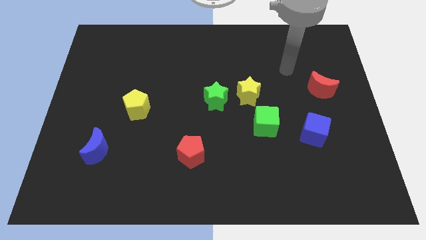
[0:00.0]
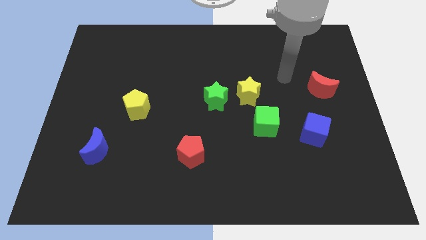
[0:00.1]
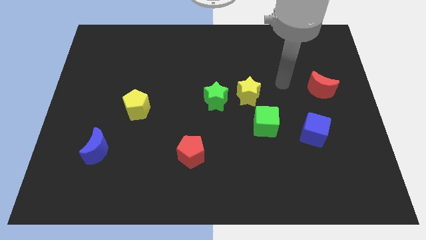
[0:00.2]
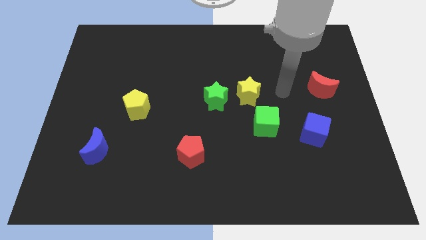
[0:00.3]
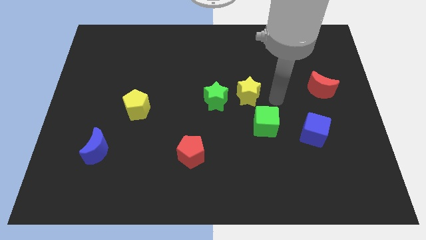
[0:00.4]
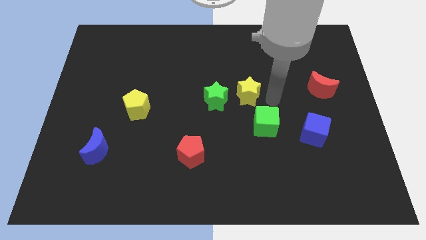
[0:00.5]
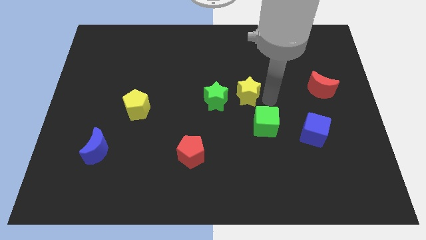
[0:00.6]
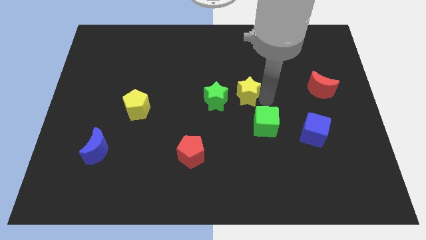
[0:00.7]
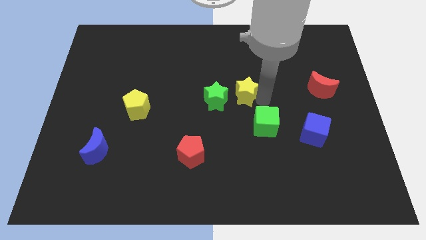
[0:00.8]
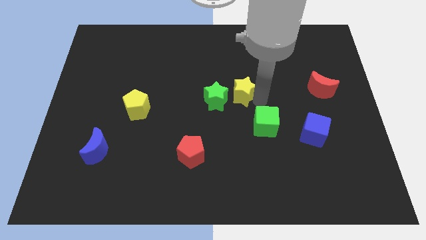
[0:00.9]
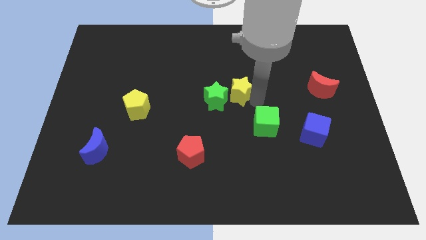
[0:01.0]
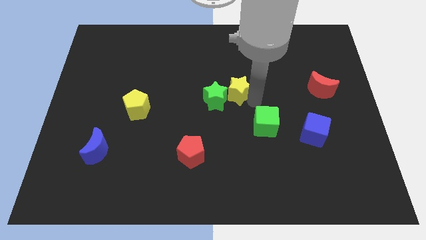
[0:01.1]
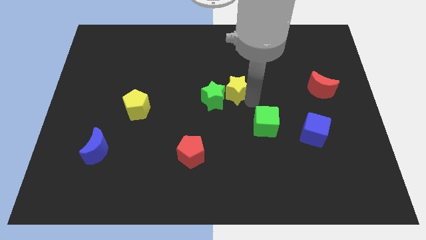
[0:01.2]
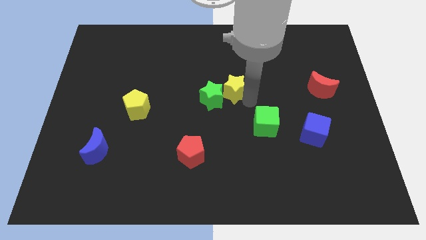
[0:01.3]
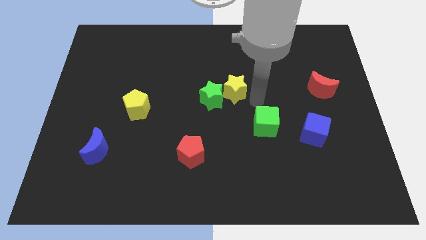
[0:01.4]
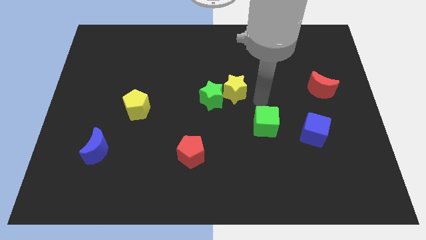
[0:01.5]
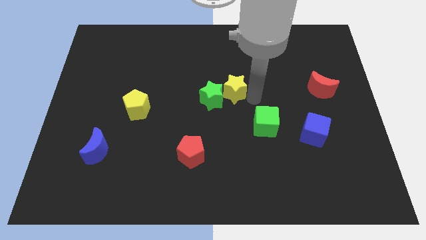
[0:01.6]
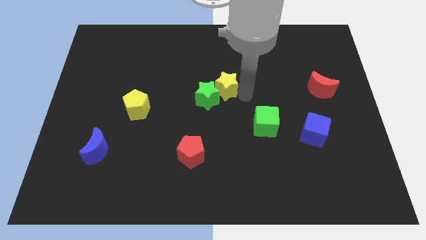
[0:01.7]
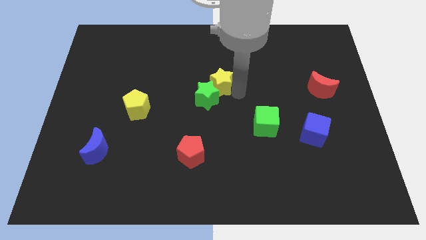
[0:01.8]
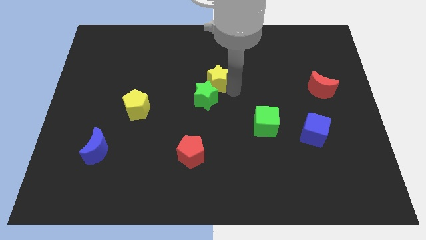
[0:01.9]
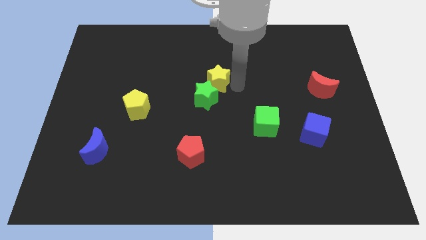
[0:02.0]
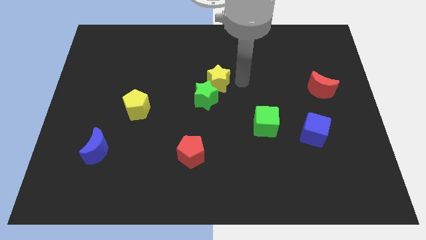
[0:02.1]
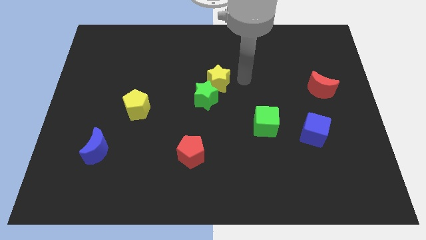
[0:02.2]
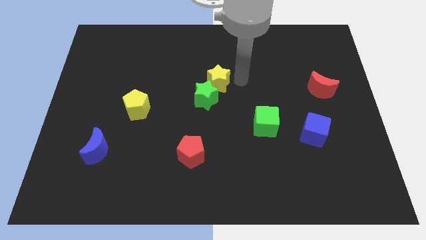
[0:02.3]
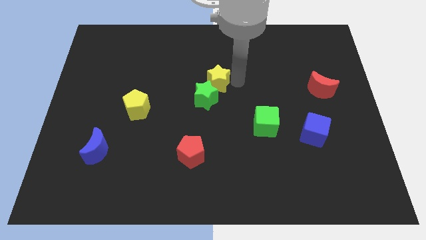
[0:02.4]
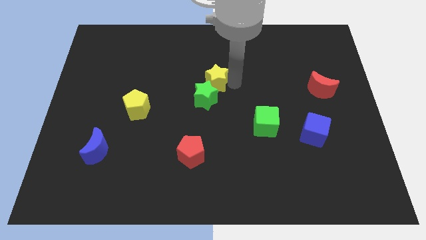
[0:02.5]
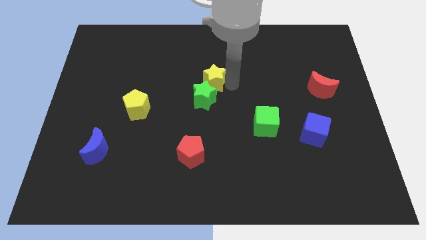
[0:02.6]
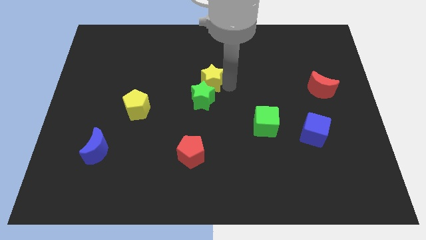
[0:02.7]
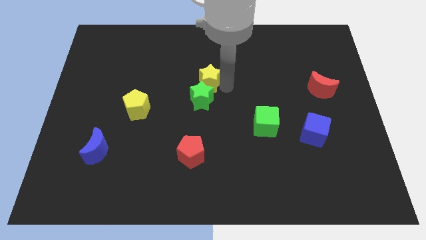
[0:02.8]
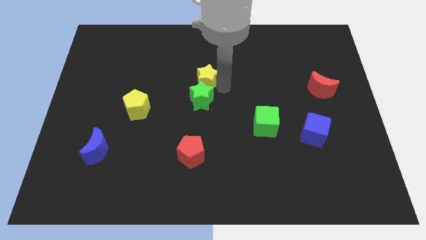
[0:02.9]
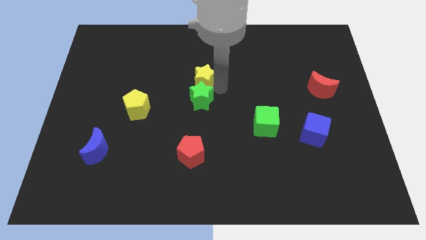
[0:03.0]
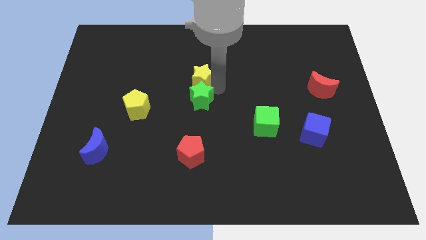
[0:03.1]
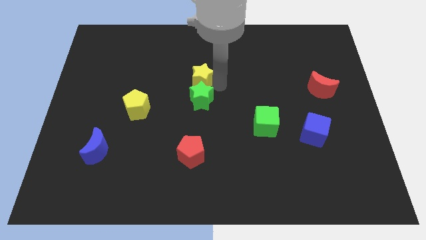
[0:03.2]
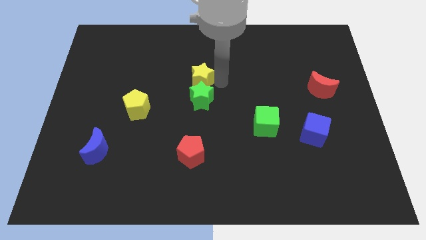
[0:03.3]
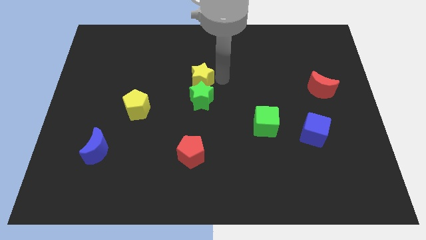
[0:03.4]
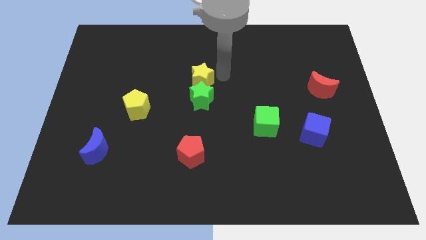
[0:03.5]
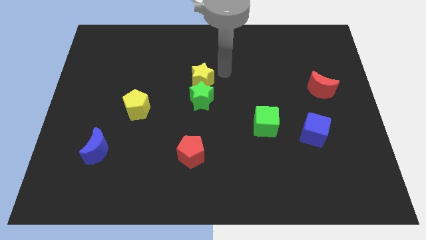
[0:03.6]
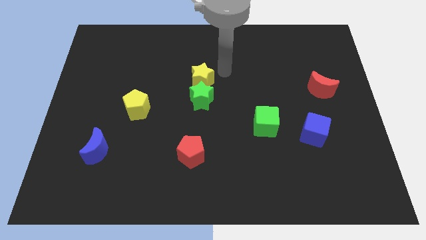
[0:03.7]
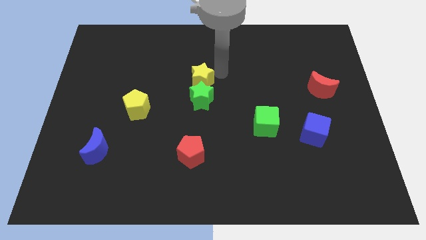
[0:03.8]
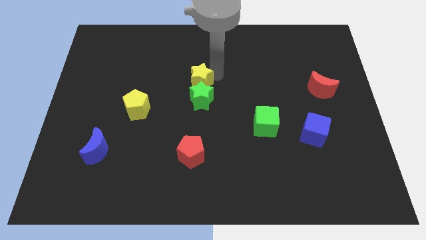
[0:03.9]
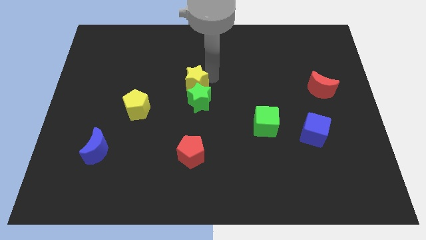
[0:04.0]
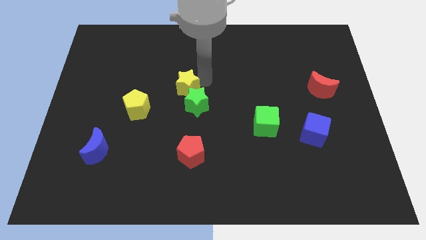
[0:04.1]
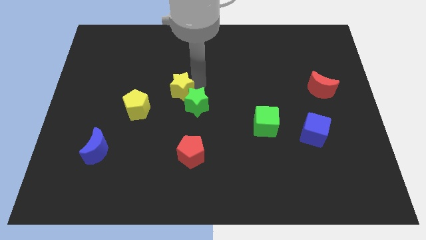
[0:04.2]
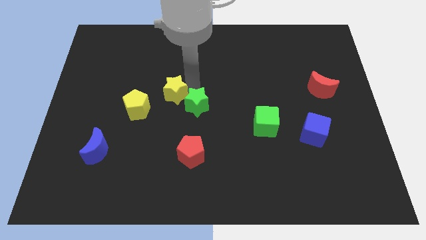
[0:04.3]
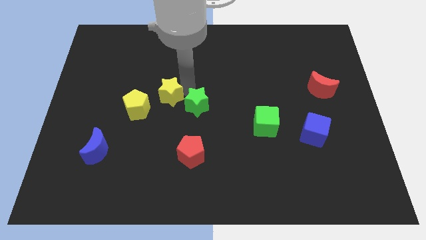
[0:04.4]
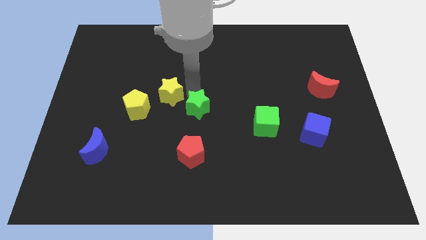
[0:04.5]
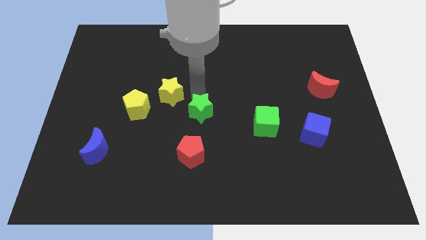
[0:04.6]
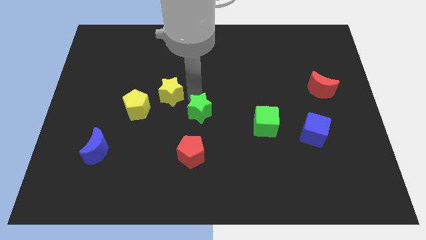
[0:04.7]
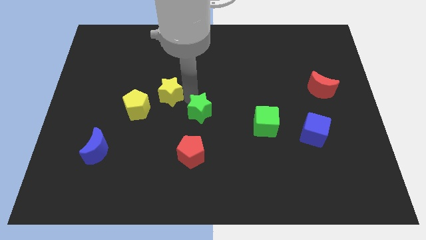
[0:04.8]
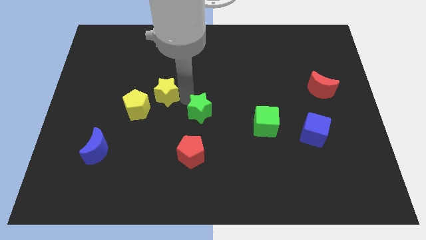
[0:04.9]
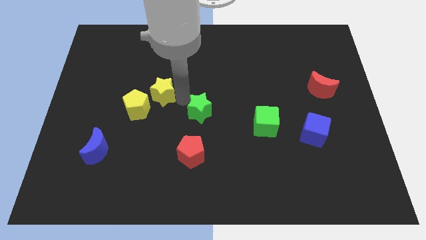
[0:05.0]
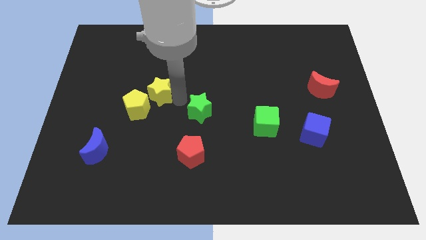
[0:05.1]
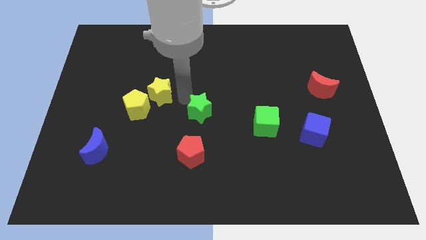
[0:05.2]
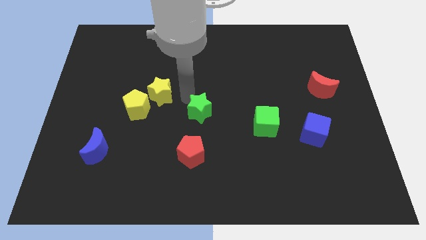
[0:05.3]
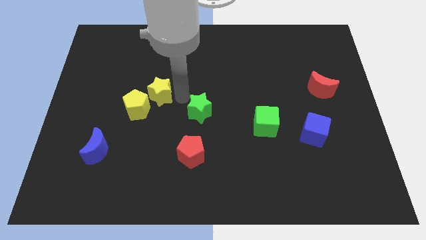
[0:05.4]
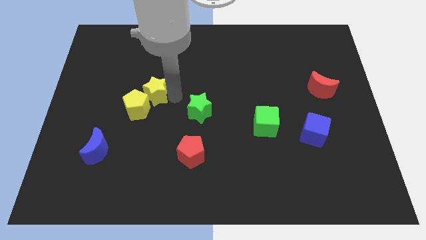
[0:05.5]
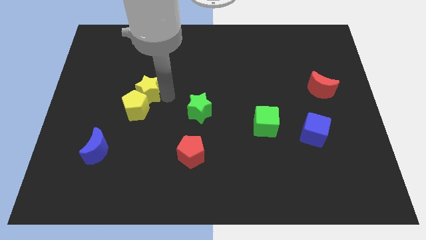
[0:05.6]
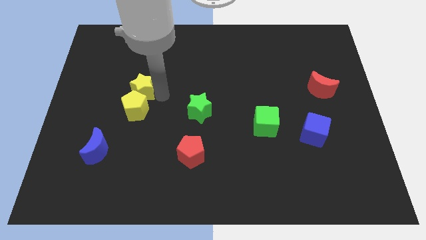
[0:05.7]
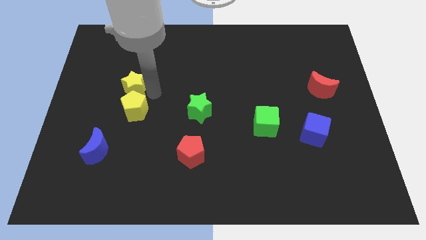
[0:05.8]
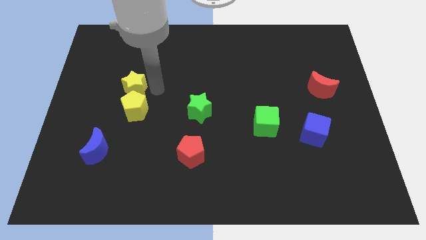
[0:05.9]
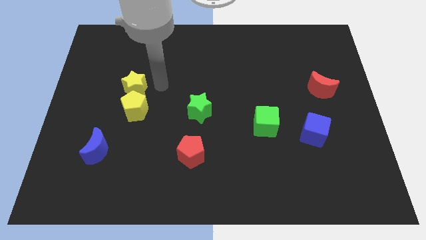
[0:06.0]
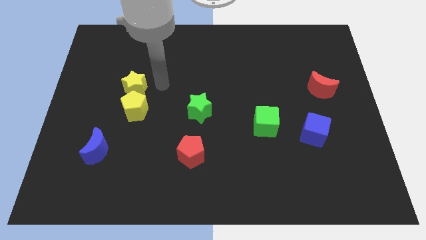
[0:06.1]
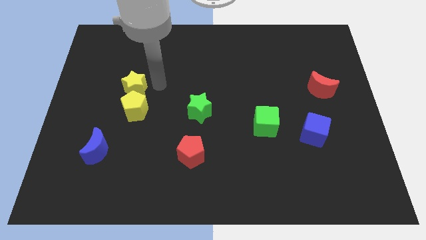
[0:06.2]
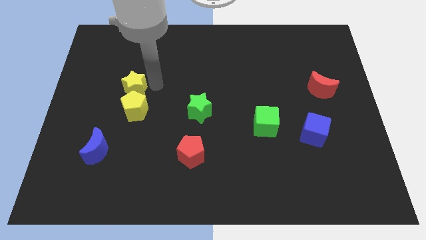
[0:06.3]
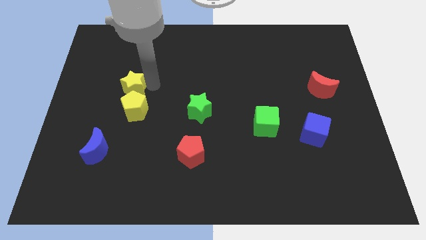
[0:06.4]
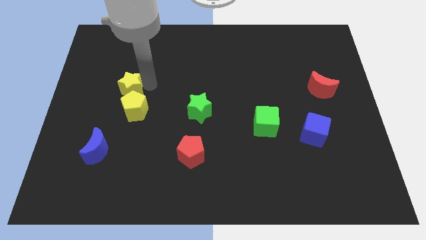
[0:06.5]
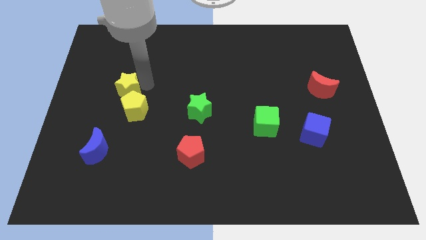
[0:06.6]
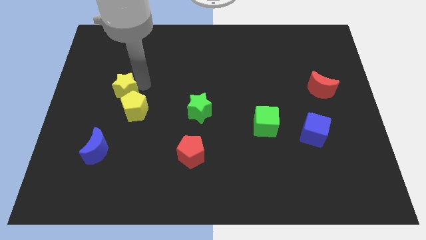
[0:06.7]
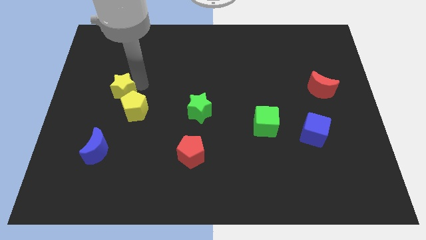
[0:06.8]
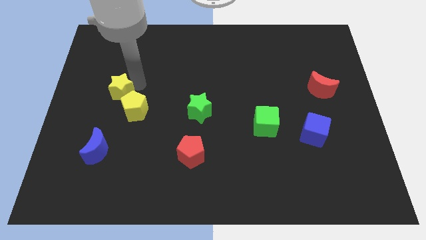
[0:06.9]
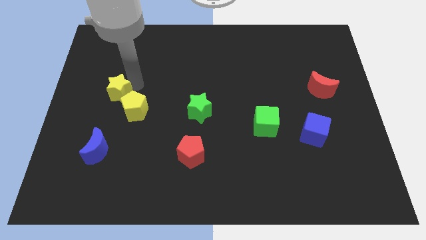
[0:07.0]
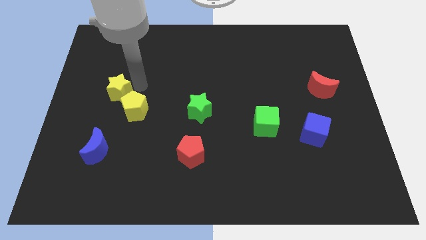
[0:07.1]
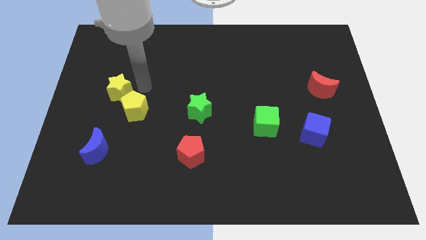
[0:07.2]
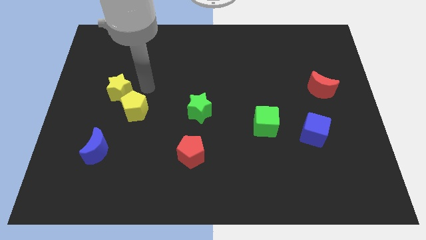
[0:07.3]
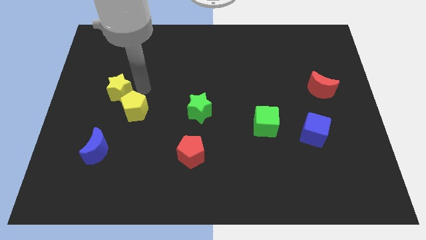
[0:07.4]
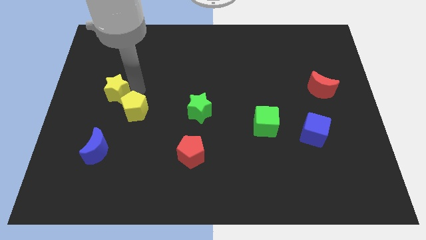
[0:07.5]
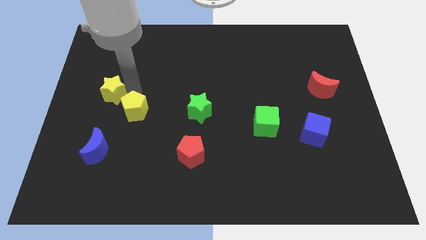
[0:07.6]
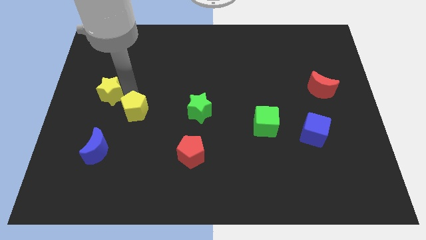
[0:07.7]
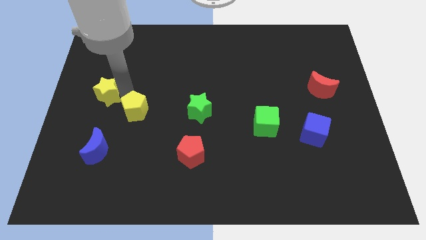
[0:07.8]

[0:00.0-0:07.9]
move the yellow star to the center left
